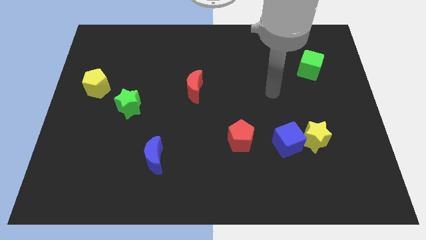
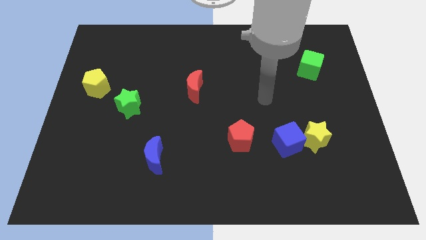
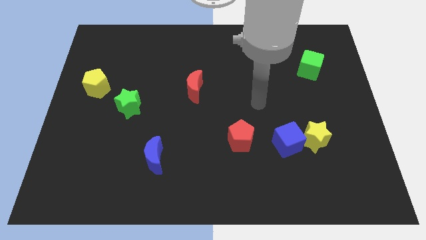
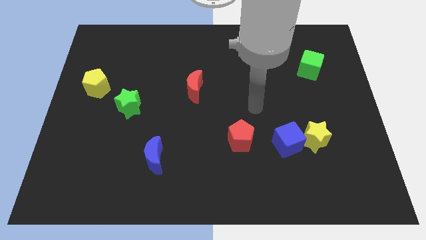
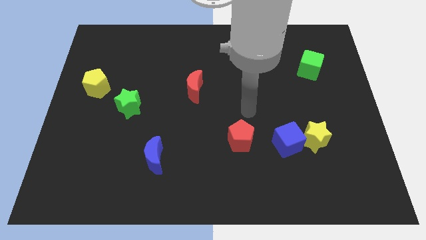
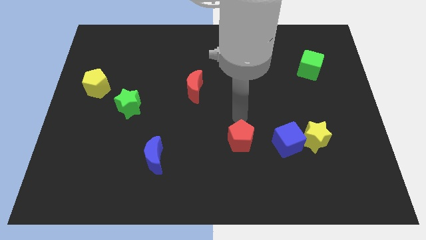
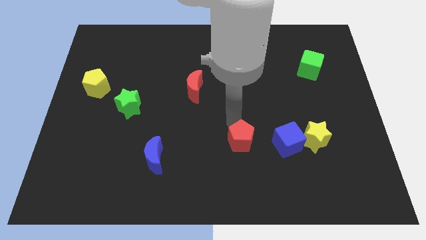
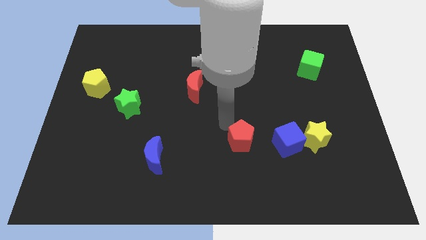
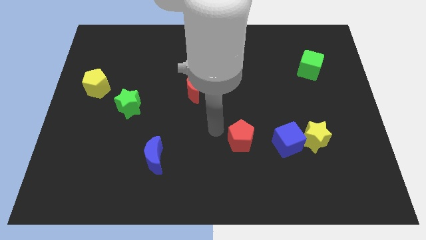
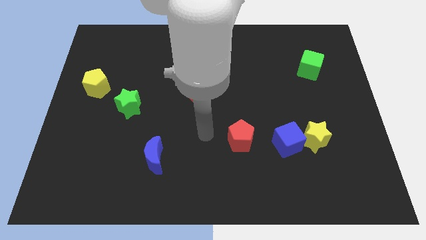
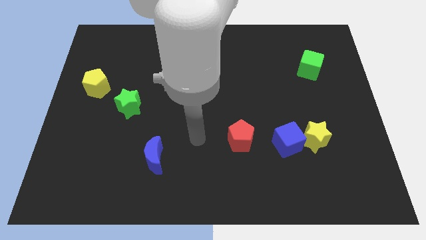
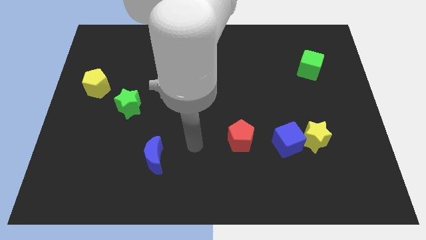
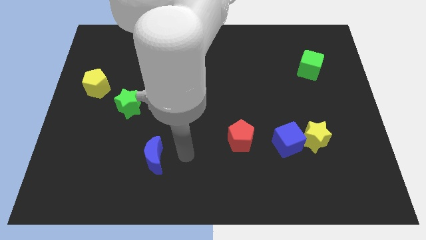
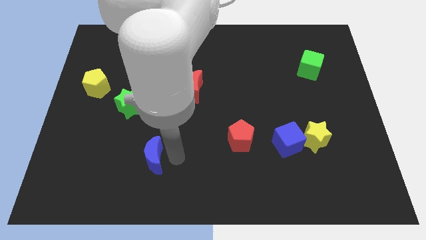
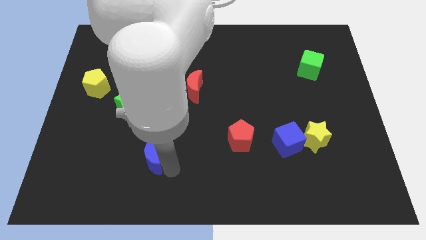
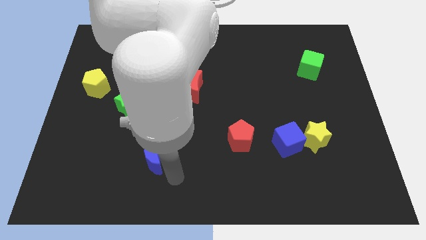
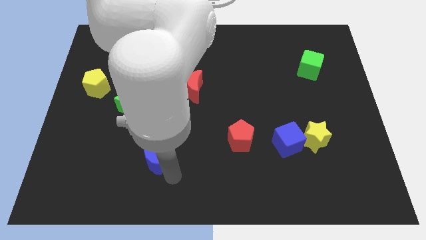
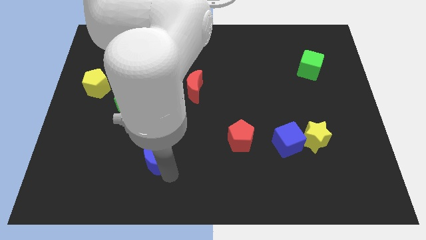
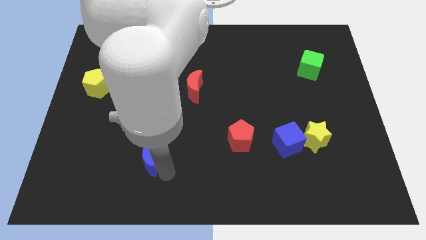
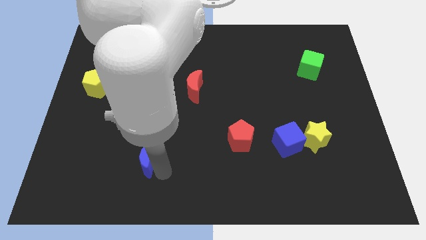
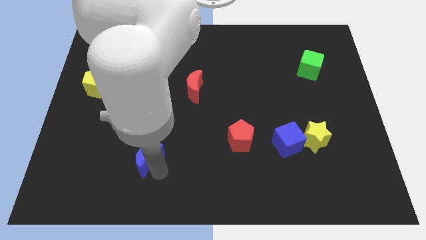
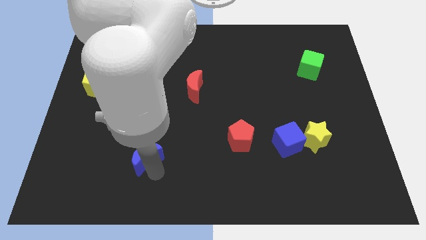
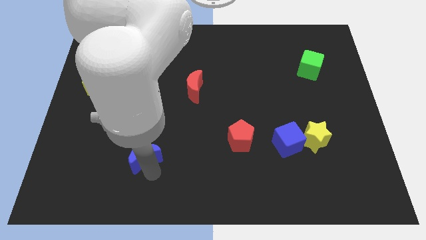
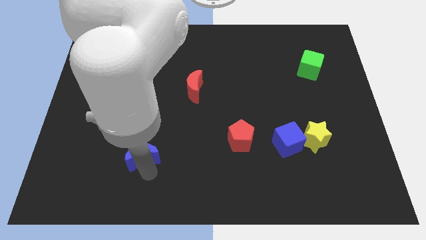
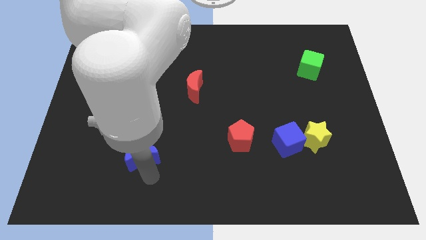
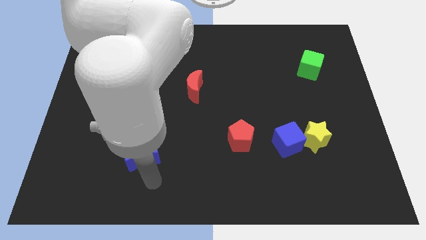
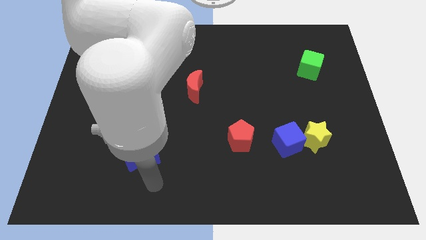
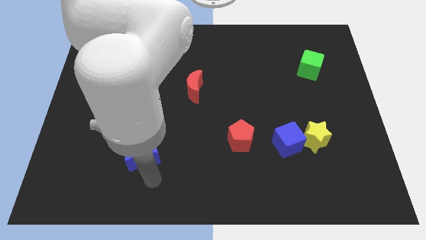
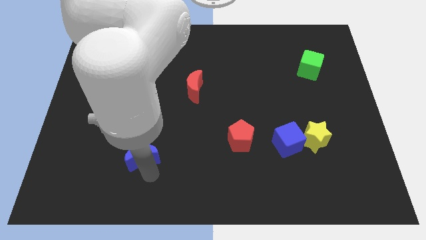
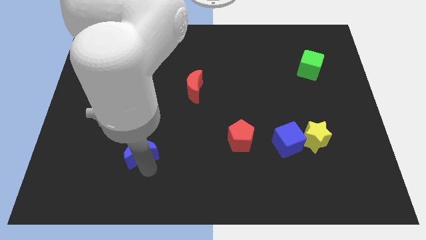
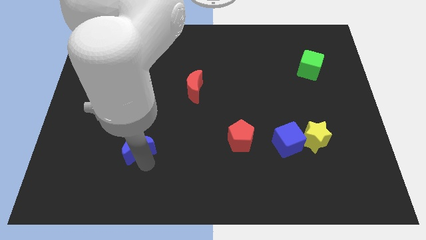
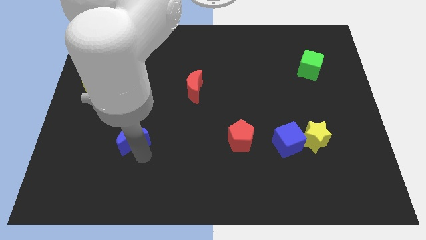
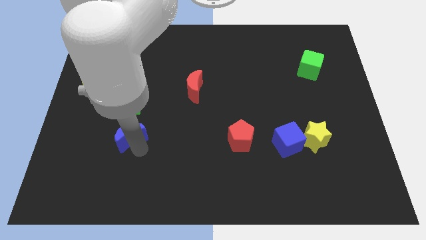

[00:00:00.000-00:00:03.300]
slide the blue moon diagonally upwards and to the left slightly

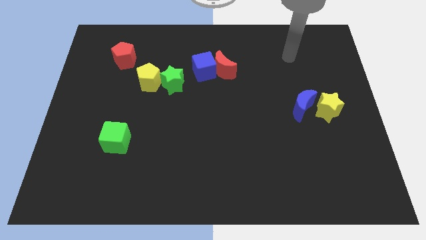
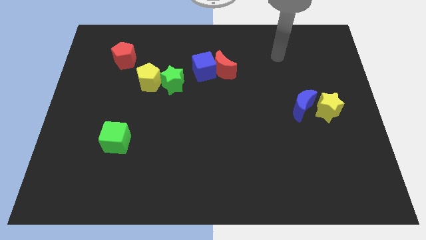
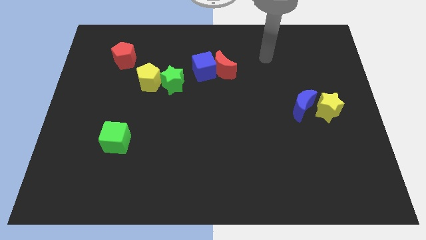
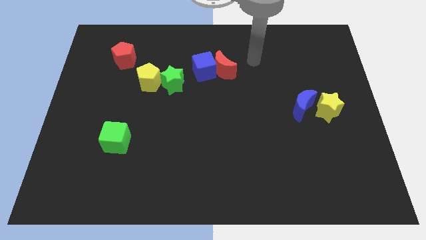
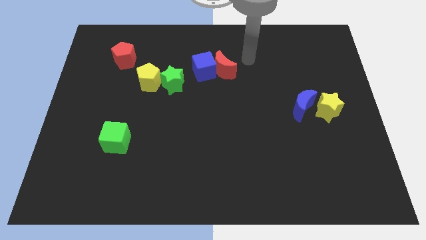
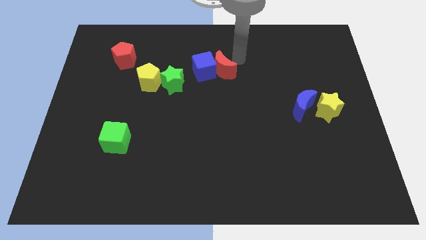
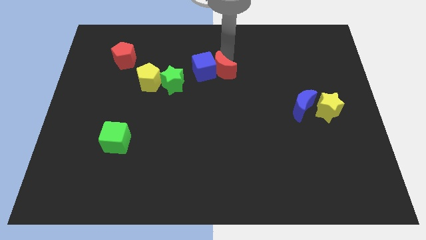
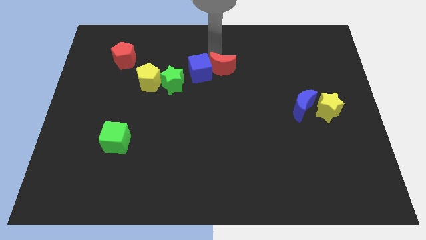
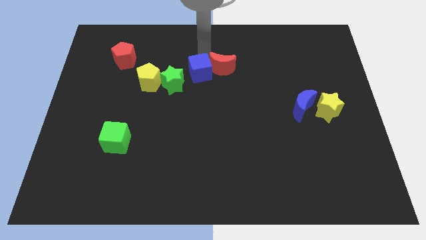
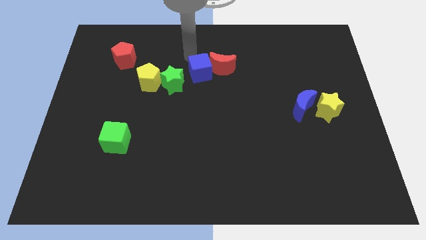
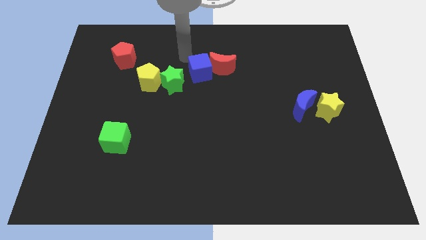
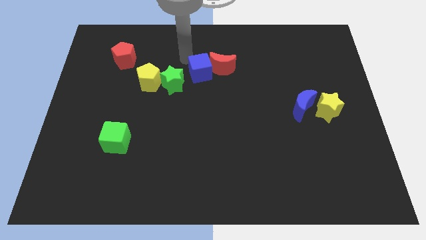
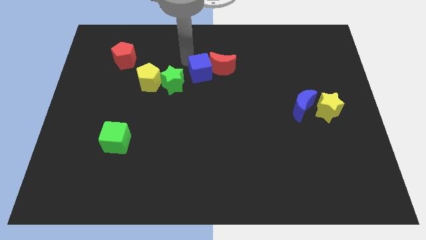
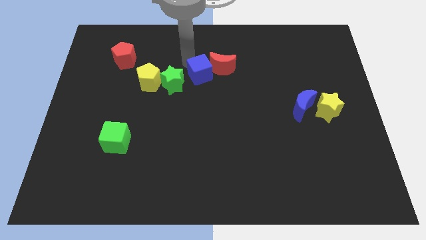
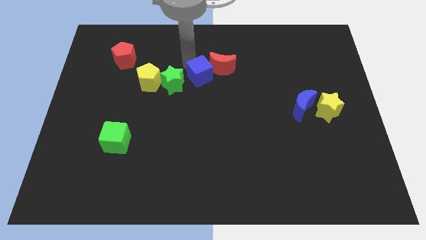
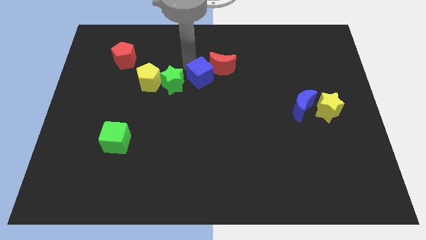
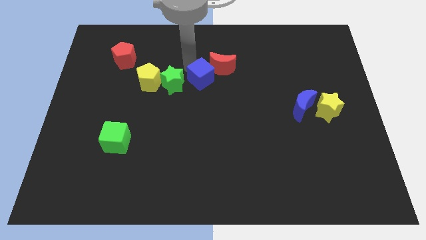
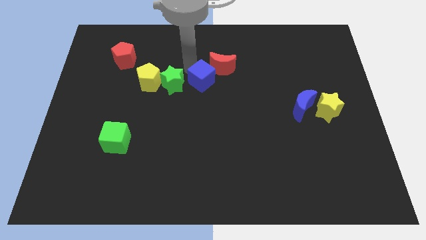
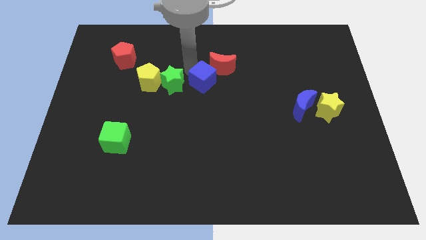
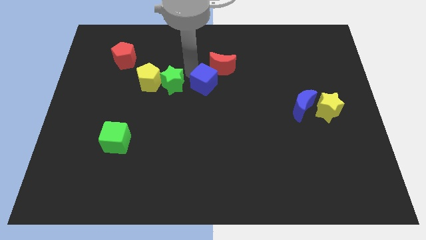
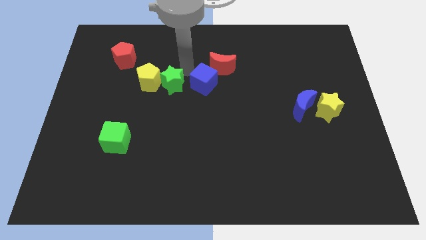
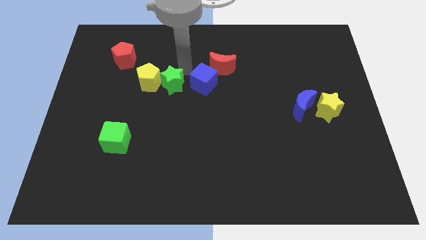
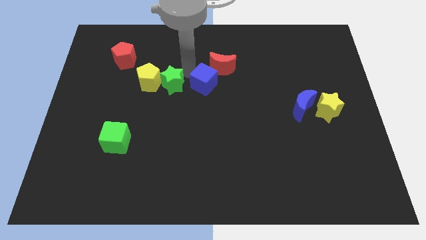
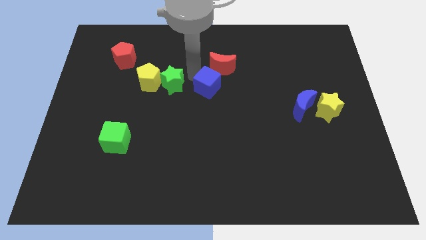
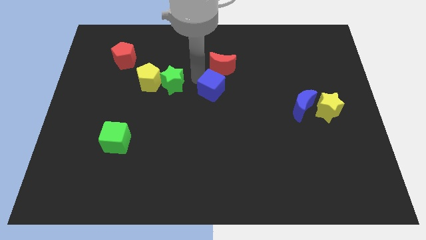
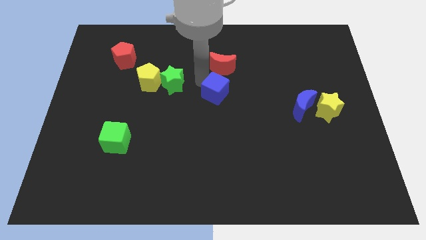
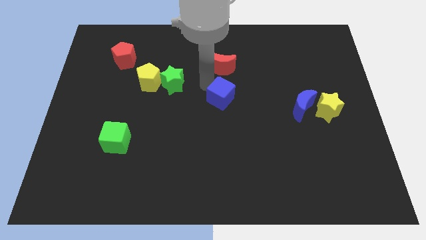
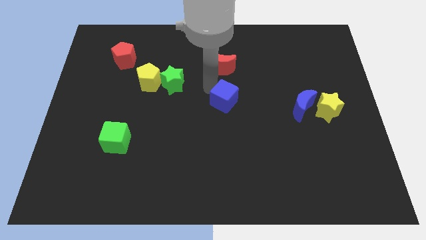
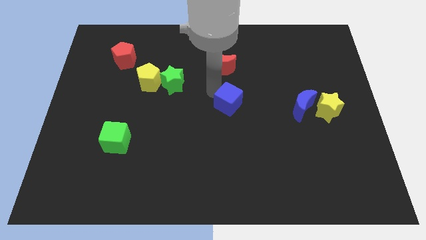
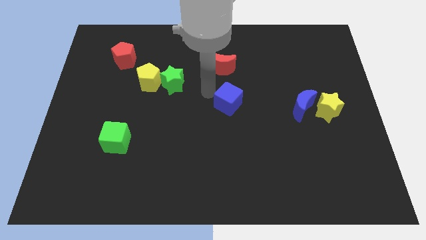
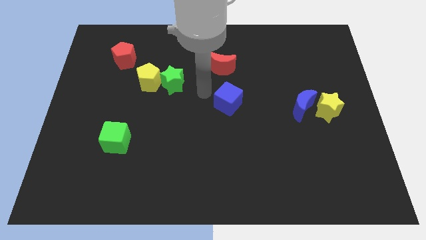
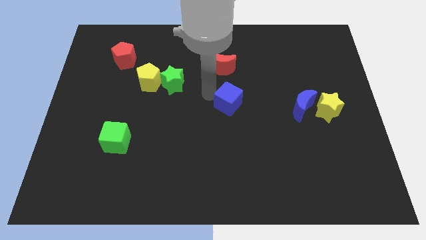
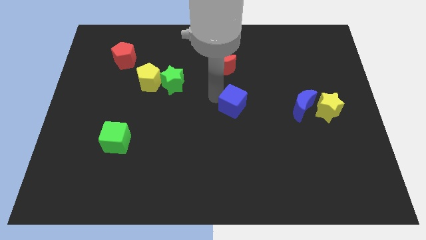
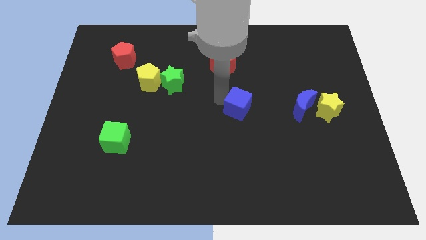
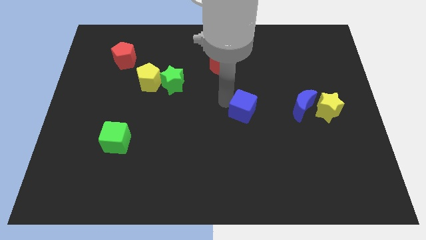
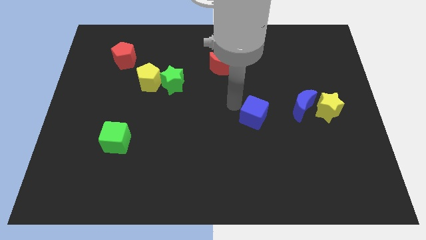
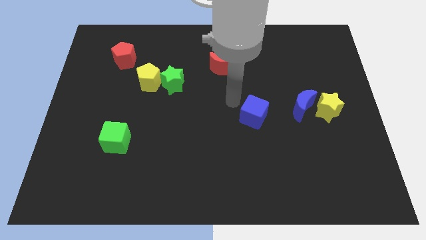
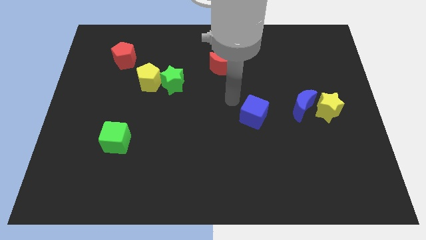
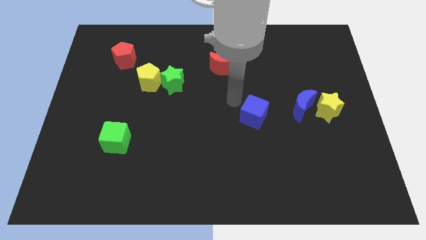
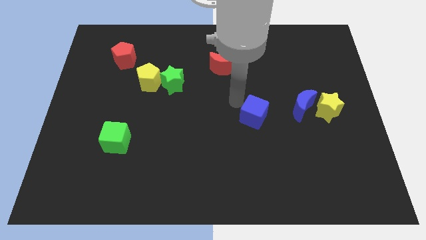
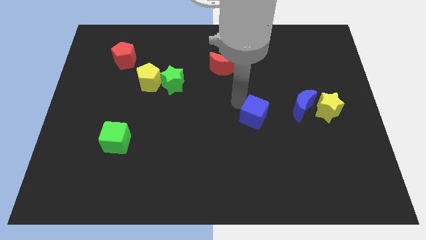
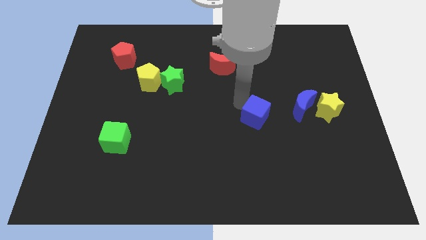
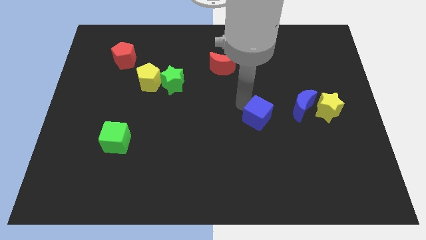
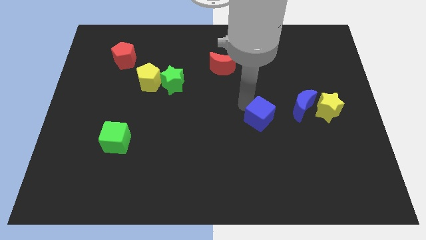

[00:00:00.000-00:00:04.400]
slide the blue cube diagonally down and to the right

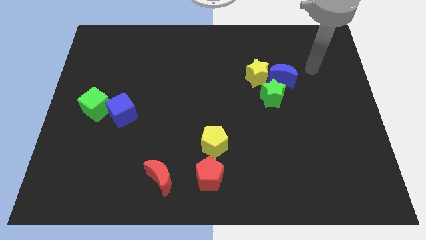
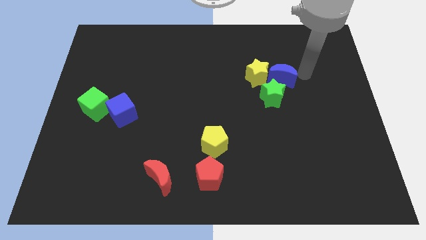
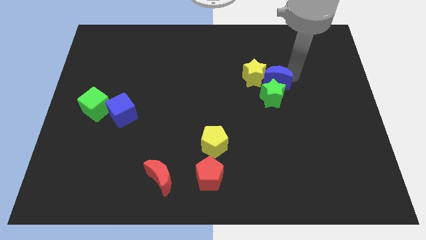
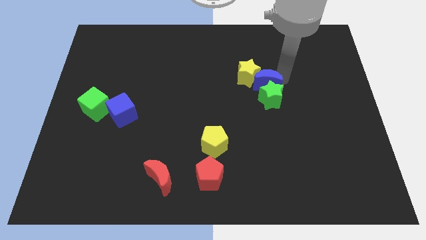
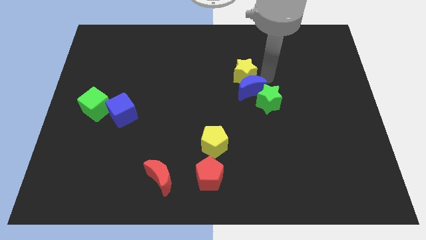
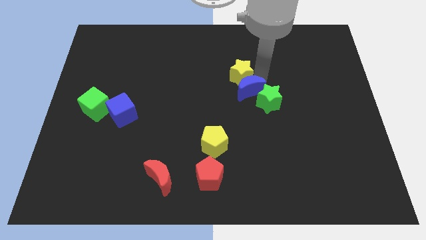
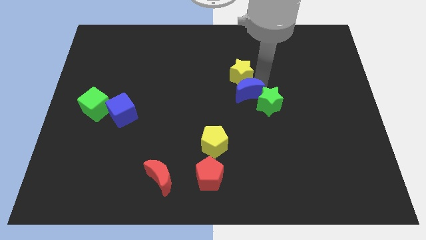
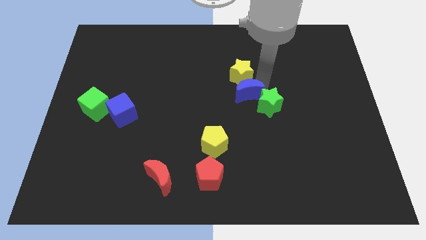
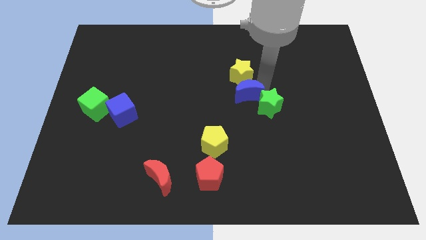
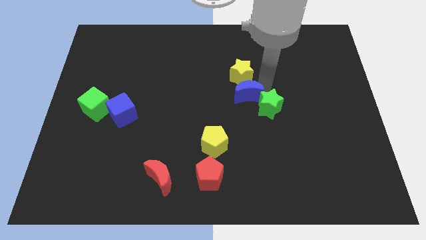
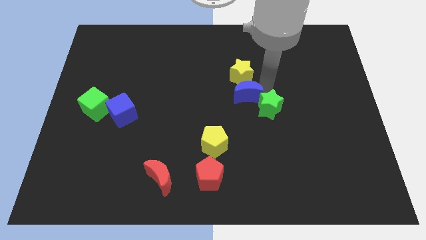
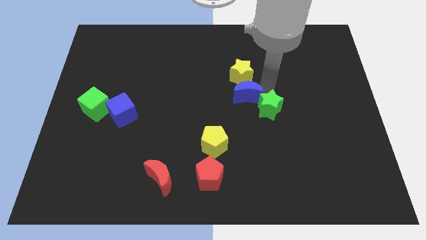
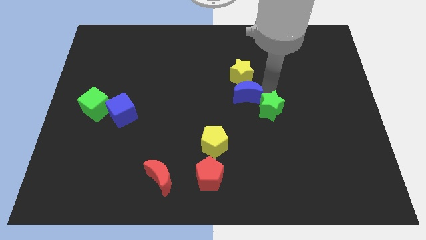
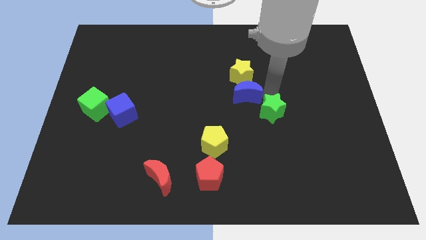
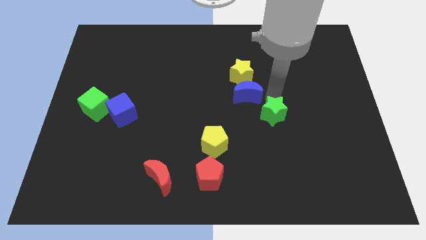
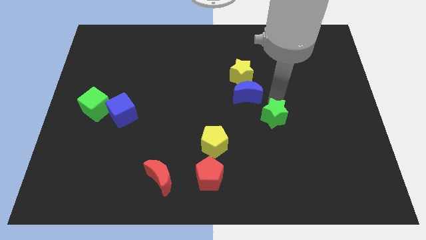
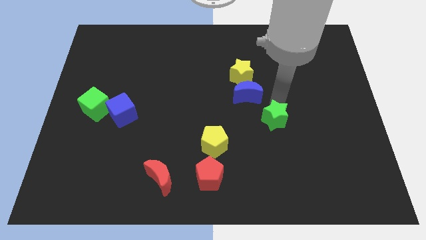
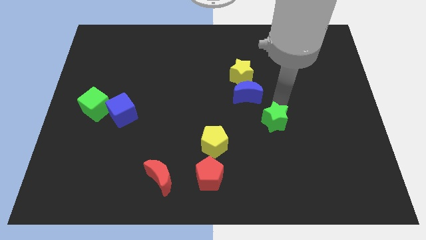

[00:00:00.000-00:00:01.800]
slide the green star a little downwards
